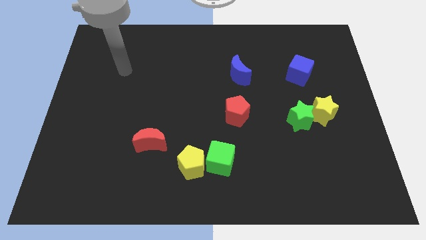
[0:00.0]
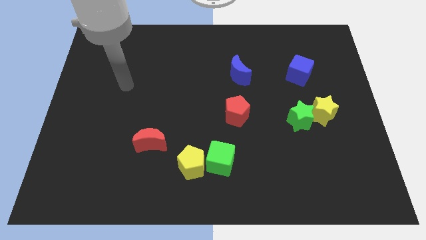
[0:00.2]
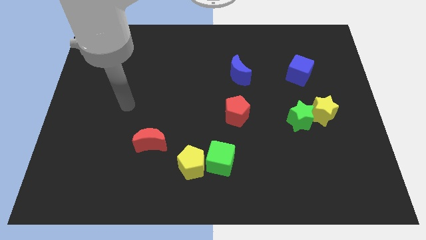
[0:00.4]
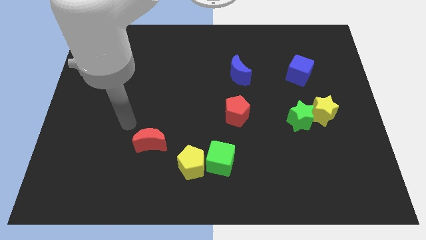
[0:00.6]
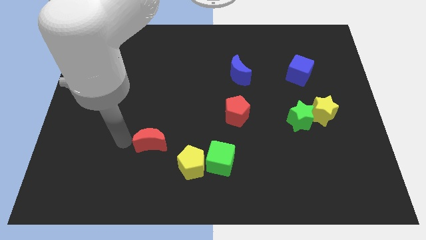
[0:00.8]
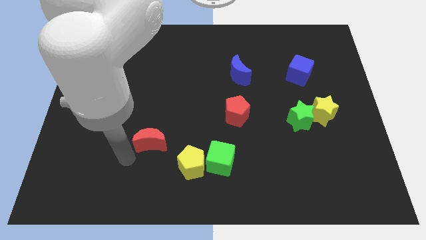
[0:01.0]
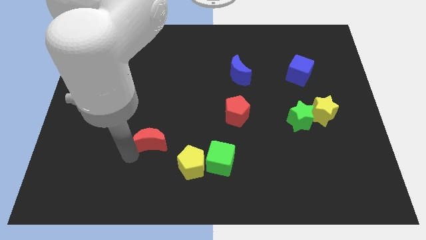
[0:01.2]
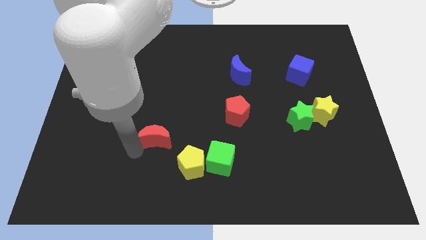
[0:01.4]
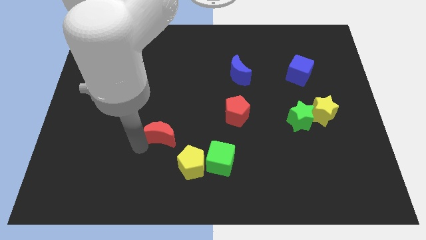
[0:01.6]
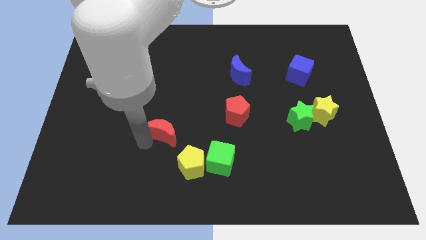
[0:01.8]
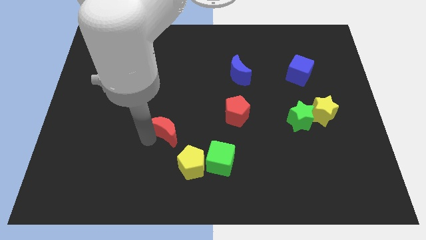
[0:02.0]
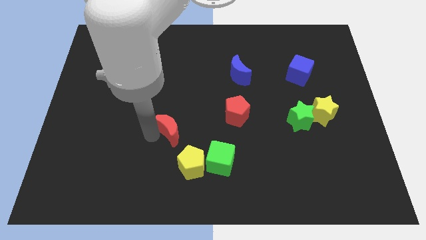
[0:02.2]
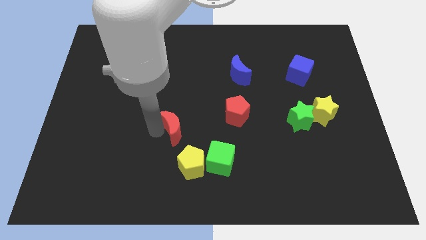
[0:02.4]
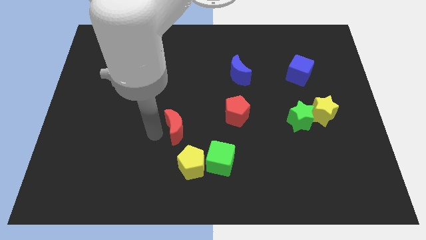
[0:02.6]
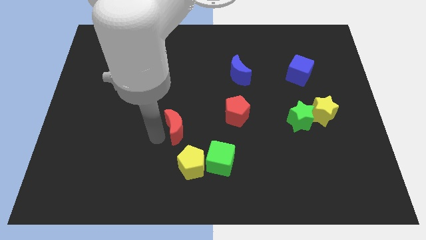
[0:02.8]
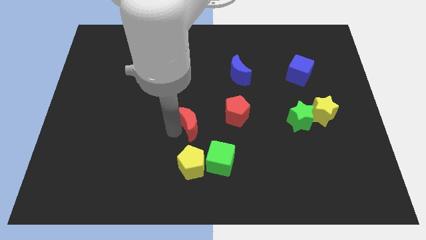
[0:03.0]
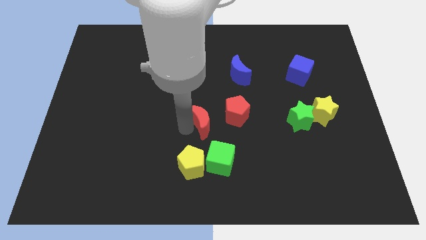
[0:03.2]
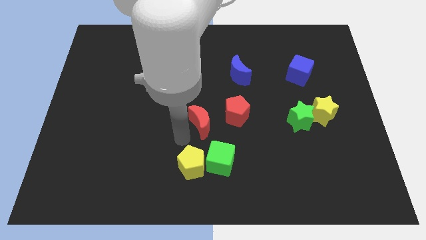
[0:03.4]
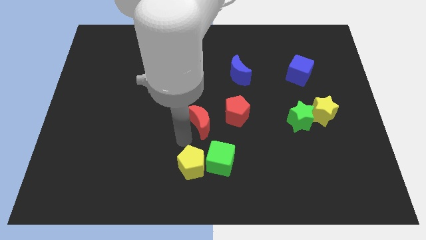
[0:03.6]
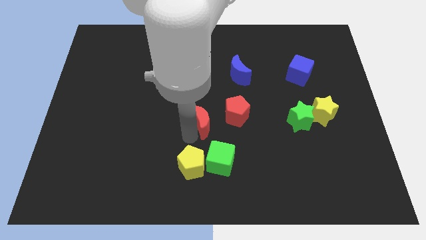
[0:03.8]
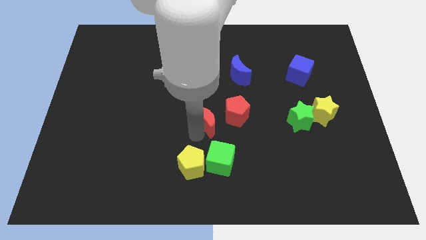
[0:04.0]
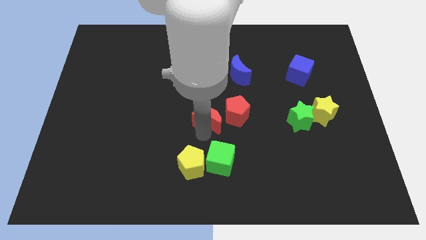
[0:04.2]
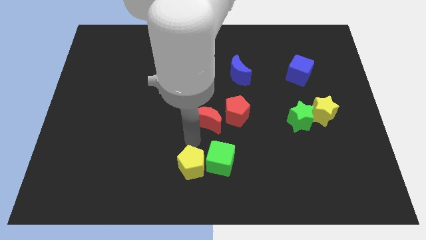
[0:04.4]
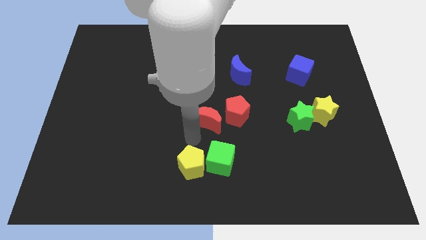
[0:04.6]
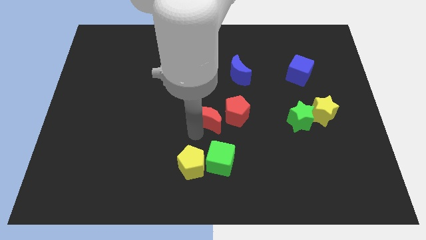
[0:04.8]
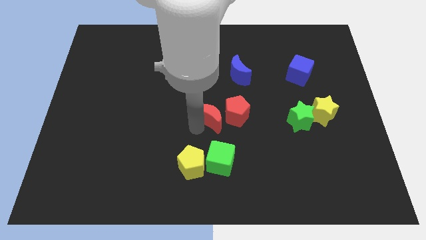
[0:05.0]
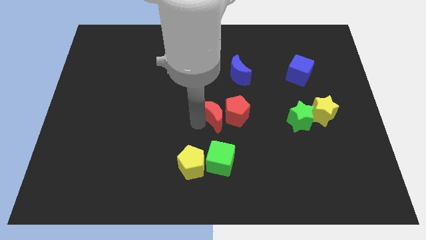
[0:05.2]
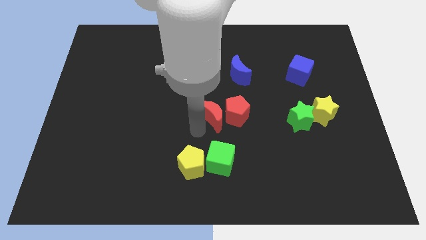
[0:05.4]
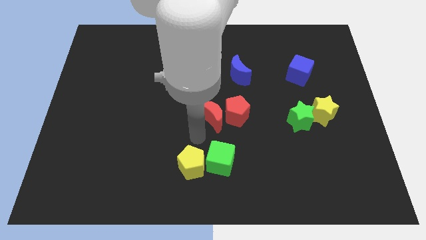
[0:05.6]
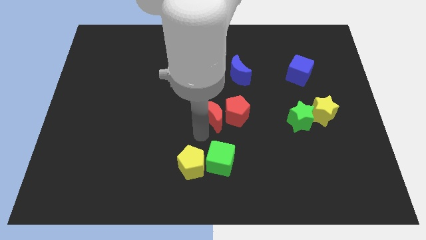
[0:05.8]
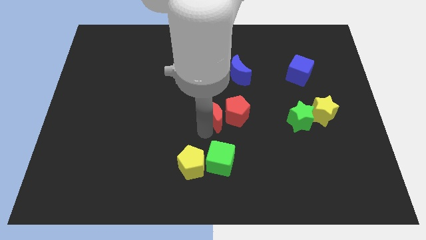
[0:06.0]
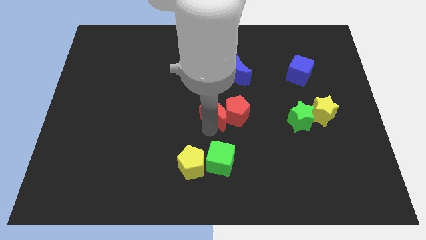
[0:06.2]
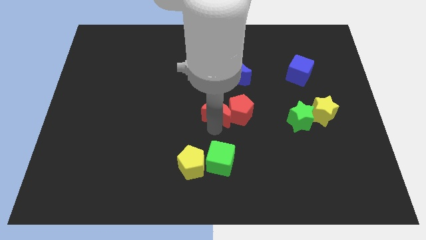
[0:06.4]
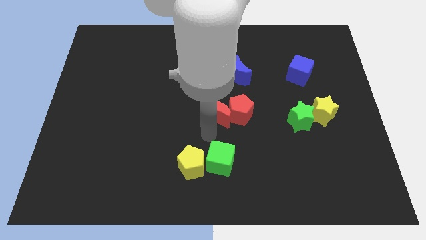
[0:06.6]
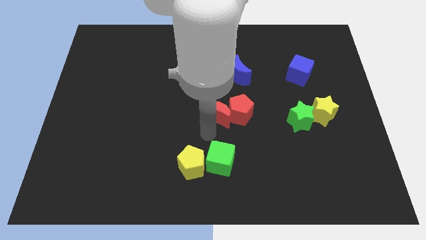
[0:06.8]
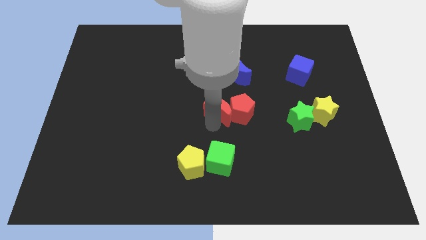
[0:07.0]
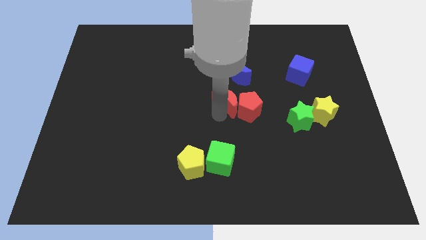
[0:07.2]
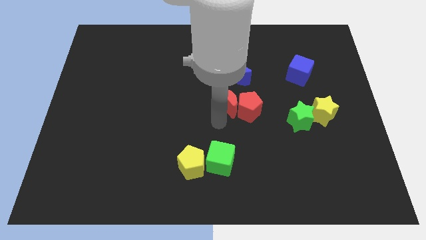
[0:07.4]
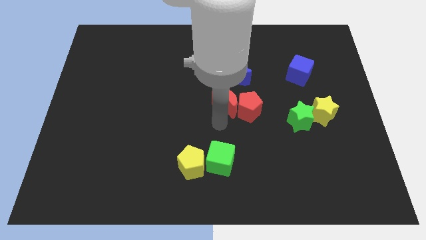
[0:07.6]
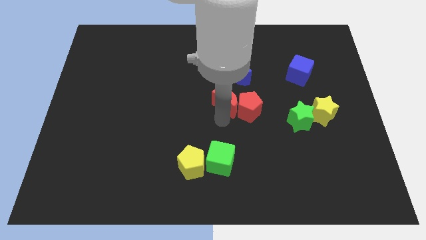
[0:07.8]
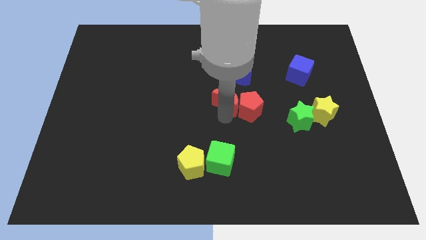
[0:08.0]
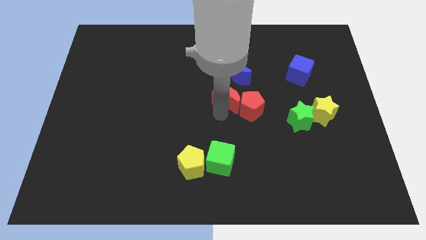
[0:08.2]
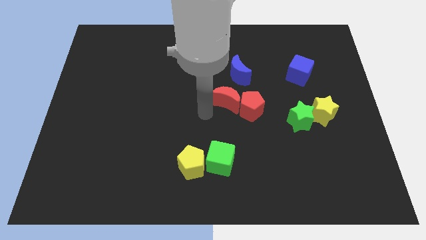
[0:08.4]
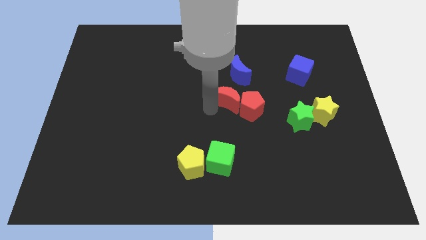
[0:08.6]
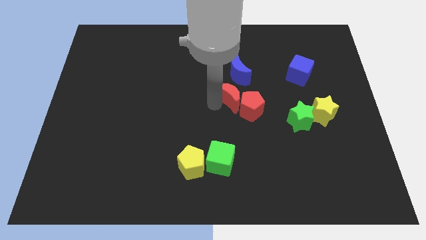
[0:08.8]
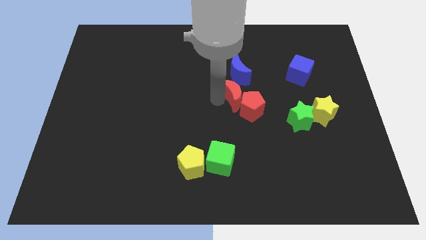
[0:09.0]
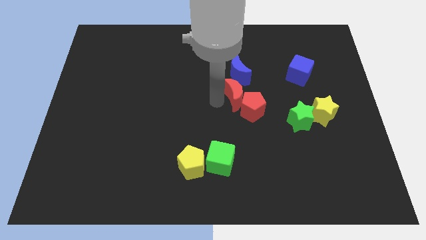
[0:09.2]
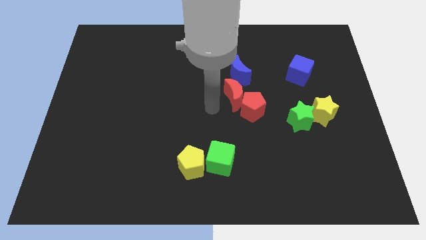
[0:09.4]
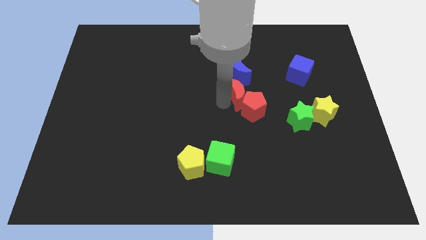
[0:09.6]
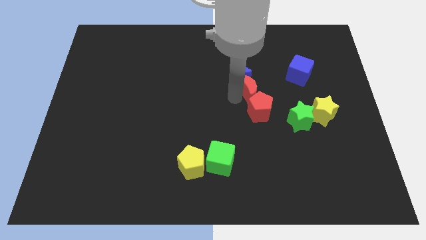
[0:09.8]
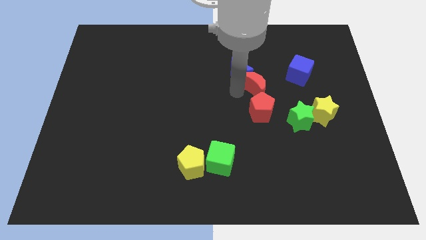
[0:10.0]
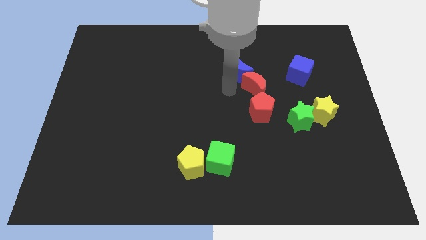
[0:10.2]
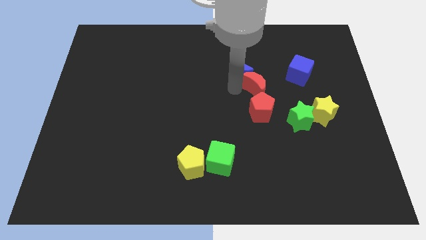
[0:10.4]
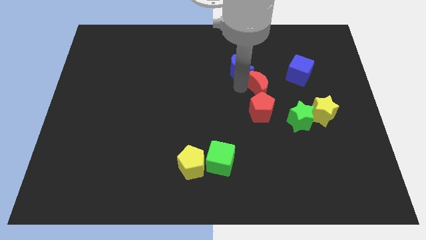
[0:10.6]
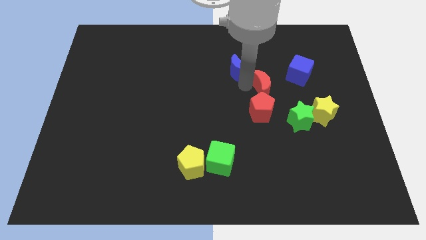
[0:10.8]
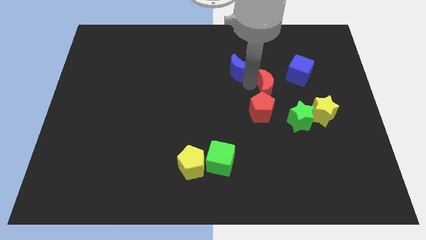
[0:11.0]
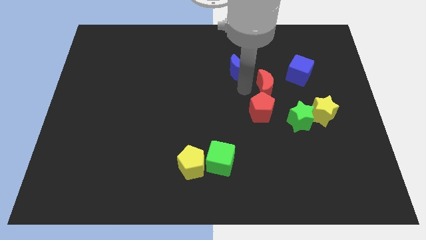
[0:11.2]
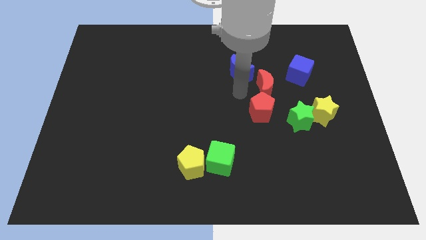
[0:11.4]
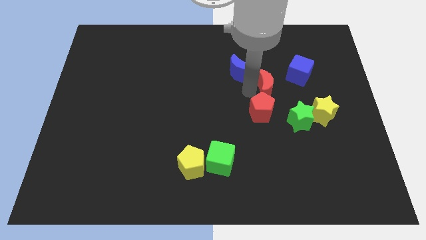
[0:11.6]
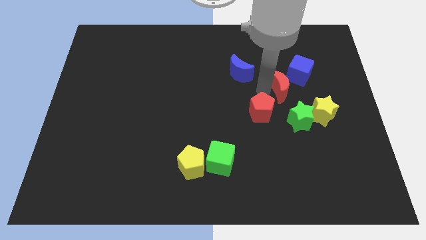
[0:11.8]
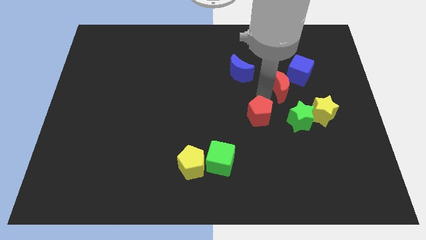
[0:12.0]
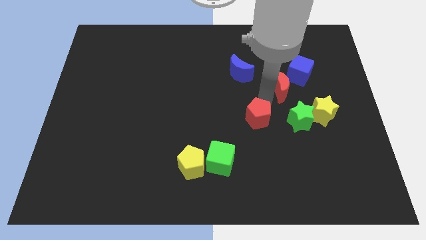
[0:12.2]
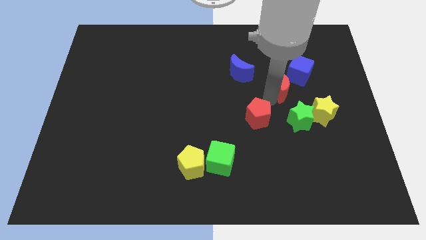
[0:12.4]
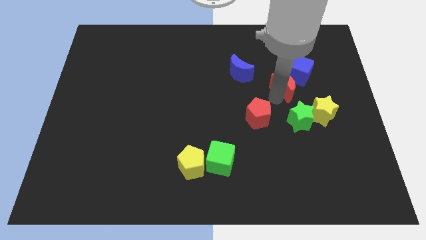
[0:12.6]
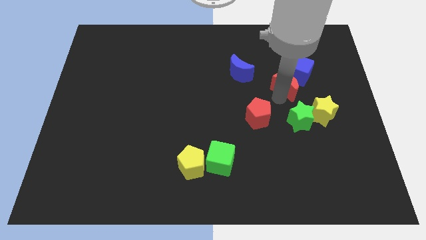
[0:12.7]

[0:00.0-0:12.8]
put the red moon towards the blue cube
